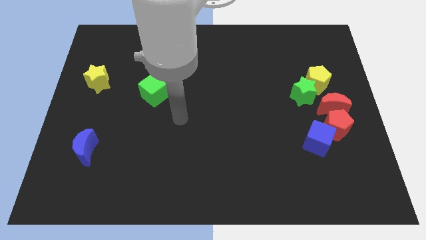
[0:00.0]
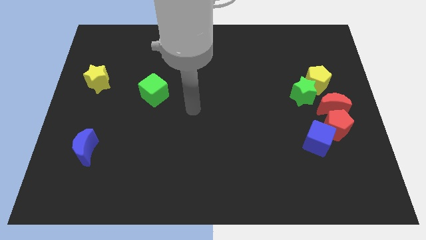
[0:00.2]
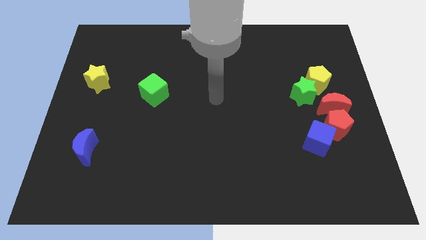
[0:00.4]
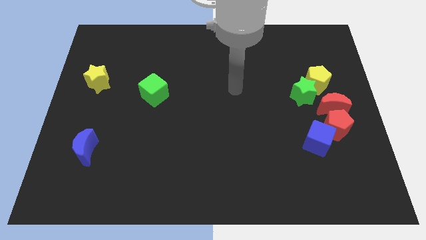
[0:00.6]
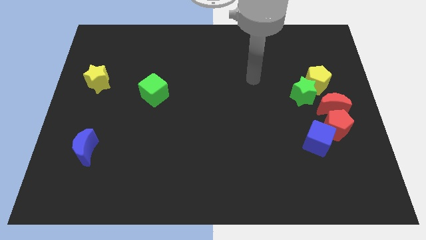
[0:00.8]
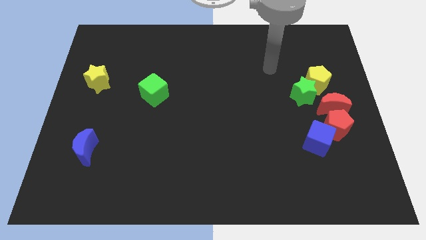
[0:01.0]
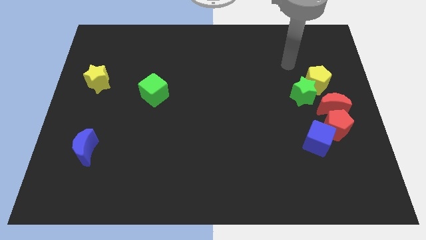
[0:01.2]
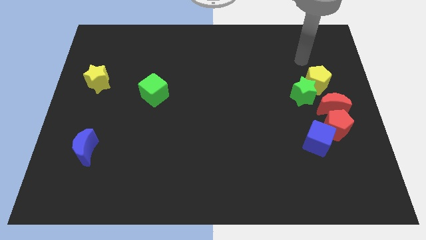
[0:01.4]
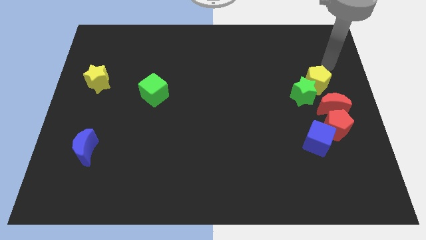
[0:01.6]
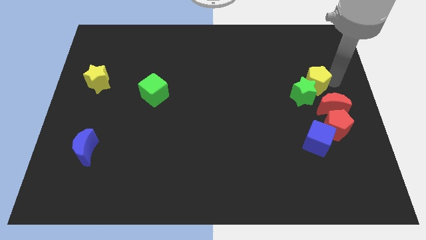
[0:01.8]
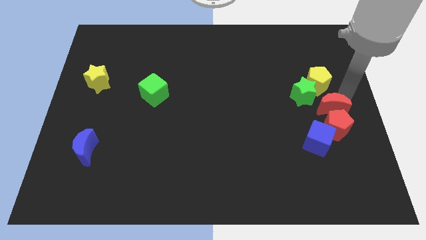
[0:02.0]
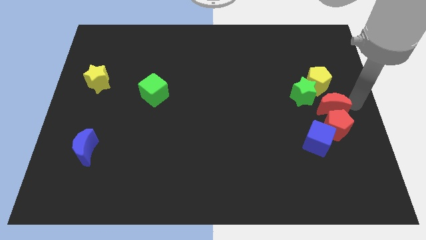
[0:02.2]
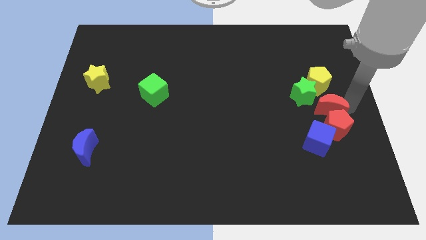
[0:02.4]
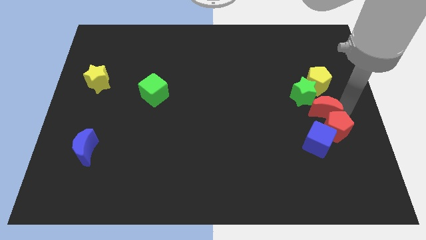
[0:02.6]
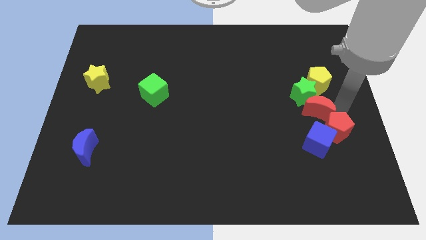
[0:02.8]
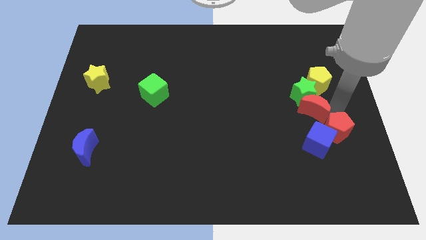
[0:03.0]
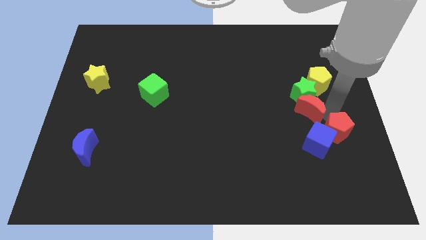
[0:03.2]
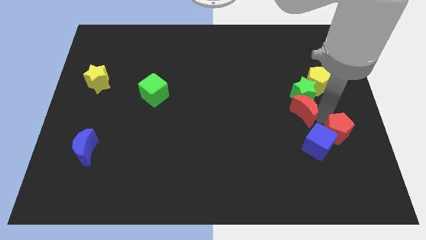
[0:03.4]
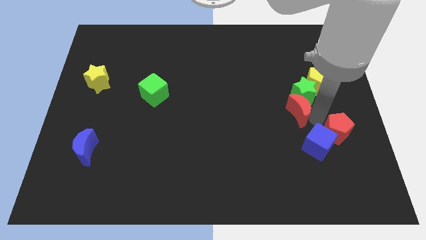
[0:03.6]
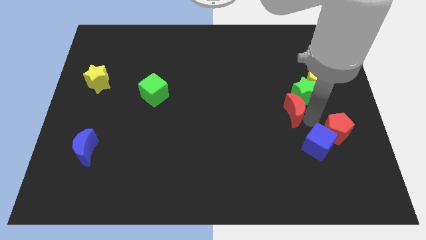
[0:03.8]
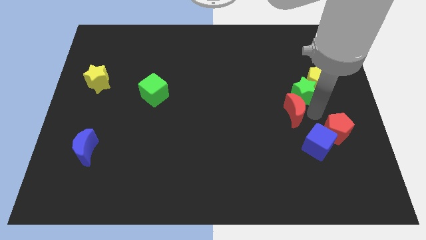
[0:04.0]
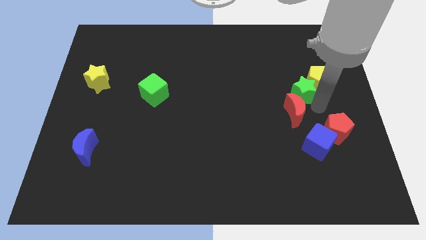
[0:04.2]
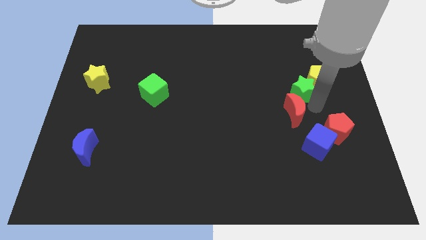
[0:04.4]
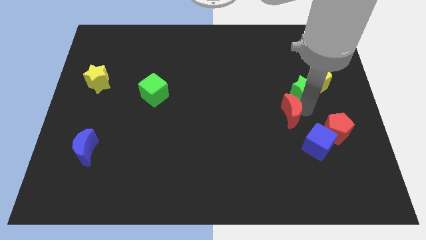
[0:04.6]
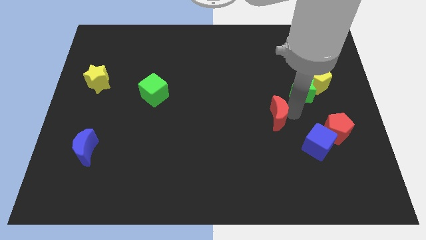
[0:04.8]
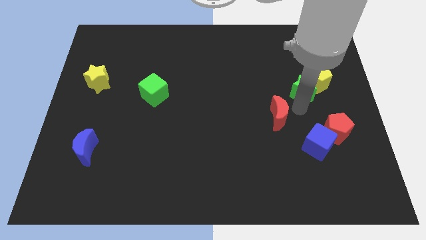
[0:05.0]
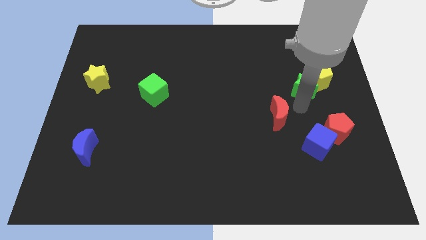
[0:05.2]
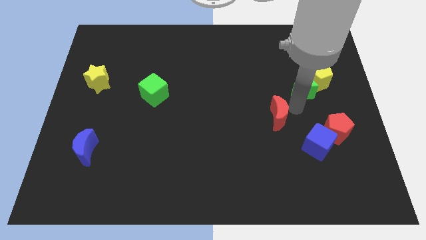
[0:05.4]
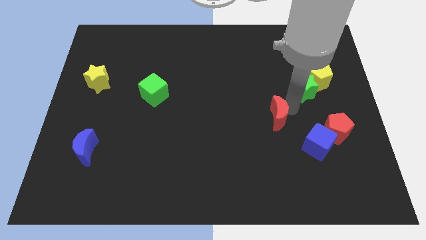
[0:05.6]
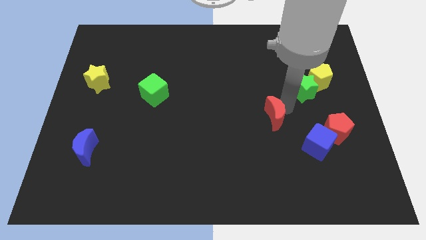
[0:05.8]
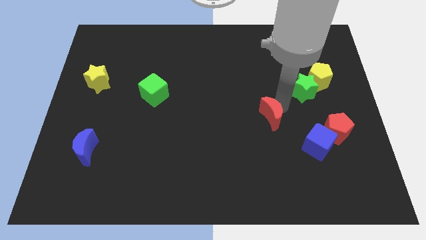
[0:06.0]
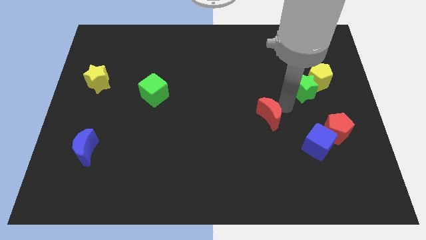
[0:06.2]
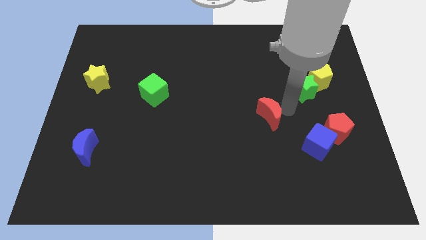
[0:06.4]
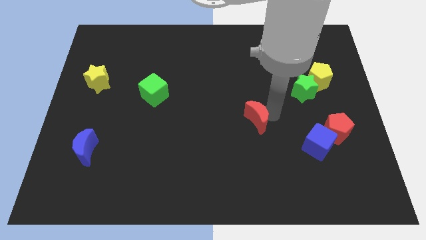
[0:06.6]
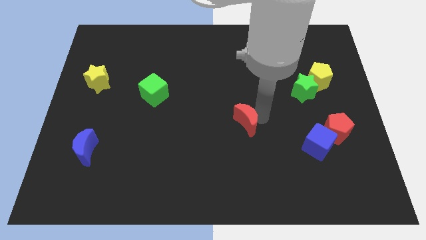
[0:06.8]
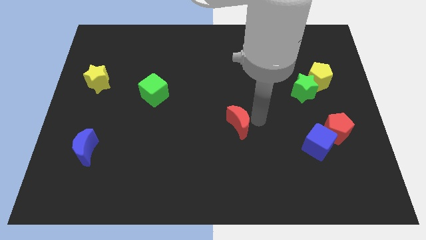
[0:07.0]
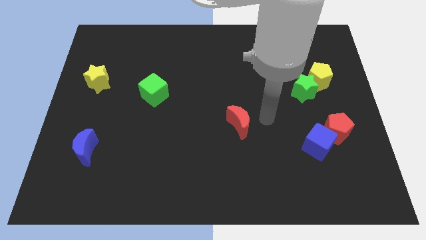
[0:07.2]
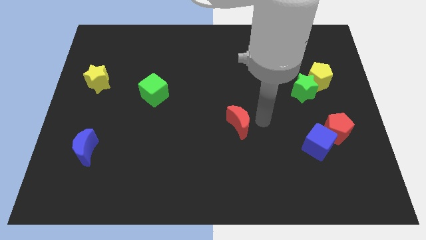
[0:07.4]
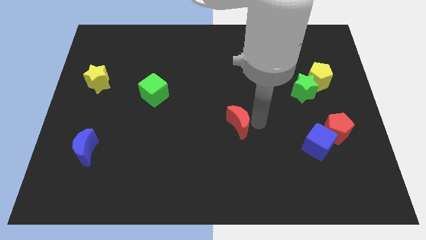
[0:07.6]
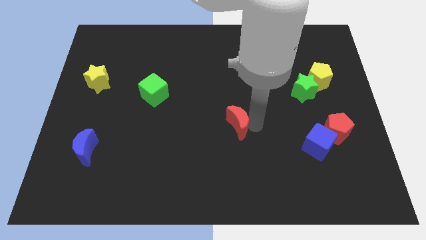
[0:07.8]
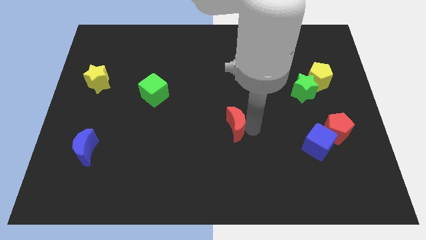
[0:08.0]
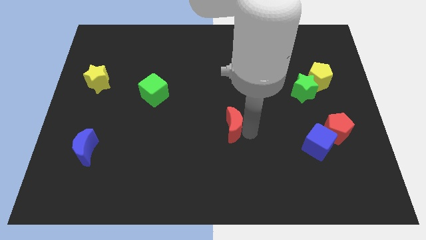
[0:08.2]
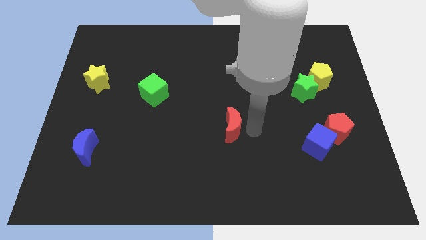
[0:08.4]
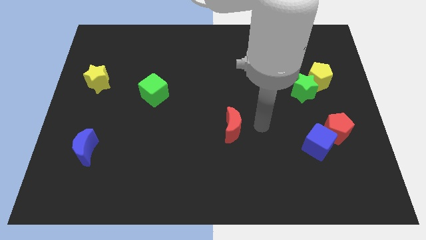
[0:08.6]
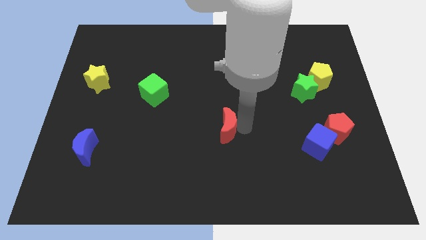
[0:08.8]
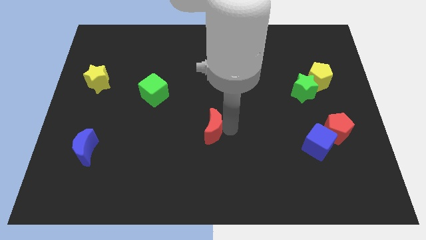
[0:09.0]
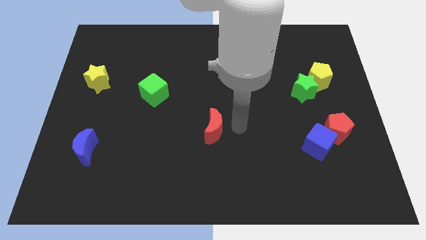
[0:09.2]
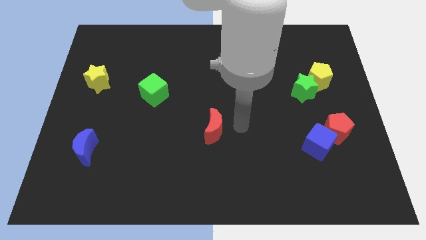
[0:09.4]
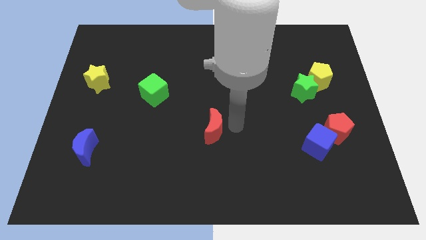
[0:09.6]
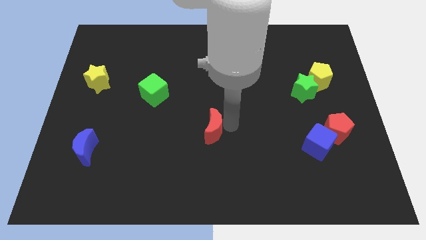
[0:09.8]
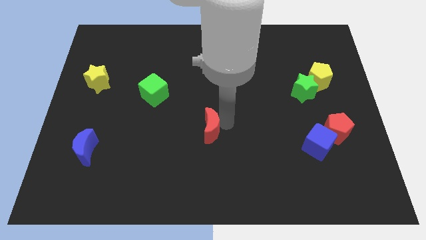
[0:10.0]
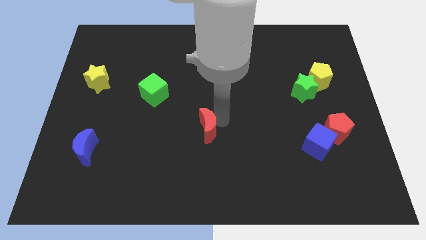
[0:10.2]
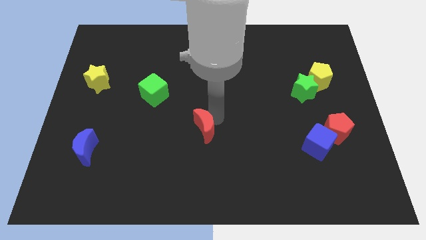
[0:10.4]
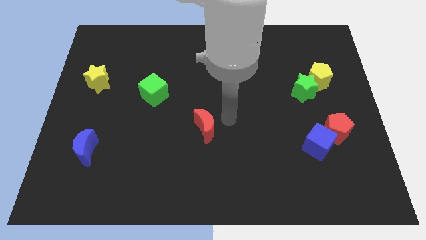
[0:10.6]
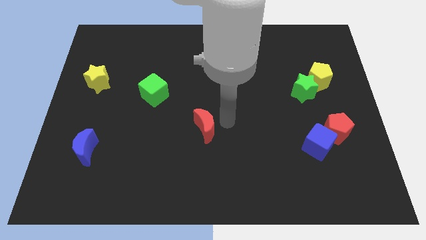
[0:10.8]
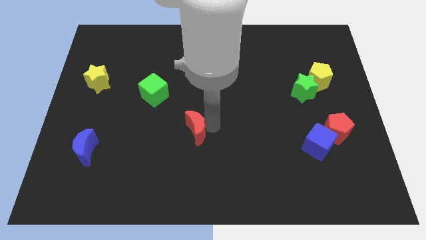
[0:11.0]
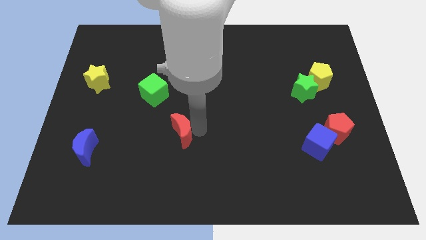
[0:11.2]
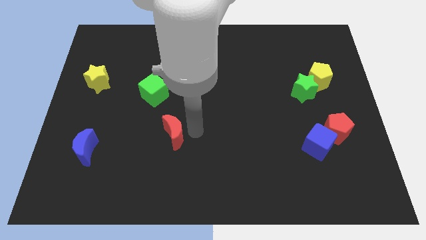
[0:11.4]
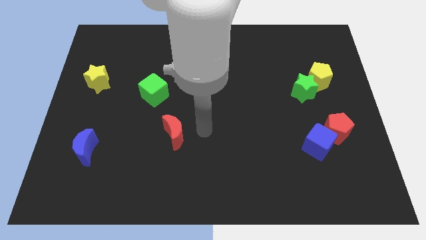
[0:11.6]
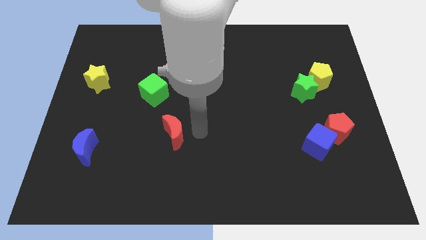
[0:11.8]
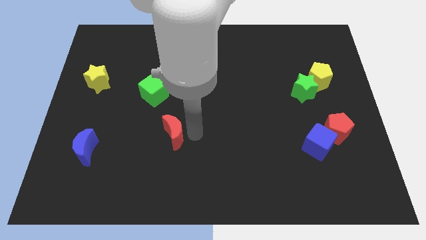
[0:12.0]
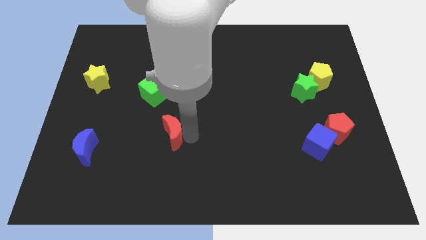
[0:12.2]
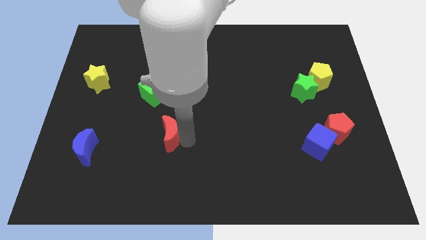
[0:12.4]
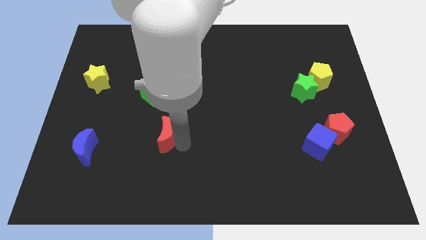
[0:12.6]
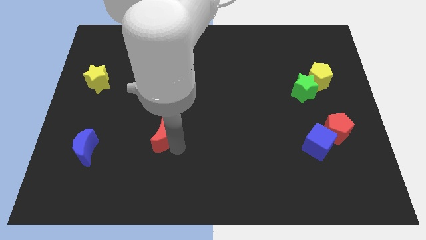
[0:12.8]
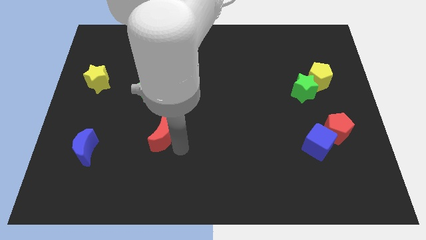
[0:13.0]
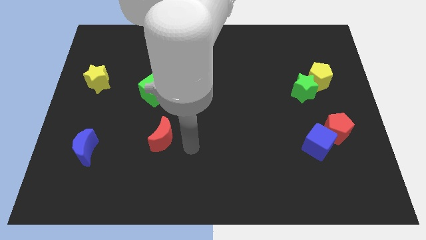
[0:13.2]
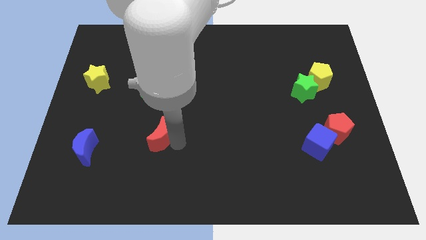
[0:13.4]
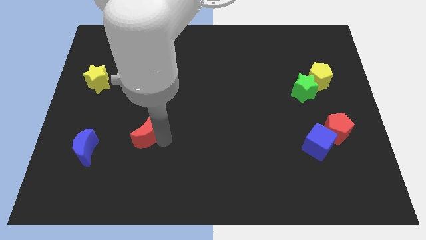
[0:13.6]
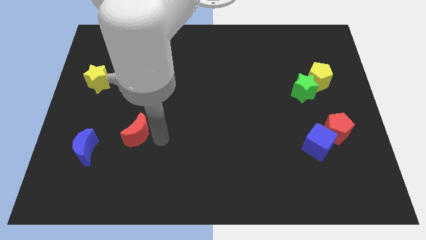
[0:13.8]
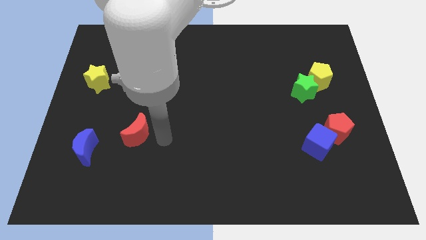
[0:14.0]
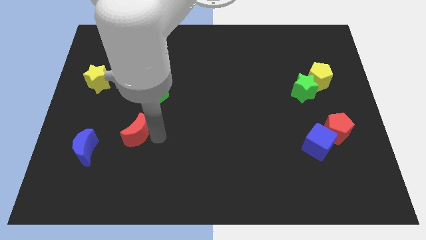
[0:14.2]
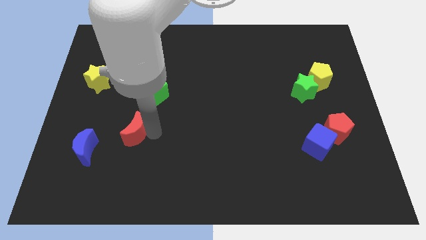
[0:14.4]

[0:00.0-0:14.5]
put the red moon diagonally up and to the right of the blue moon

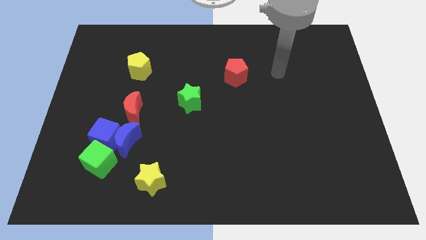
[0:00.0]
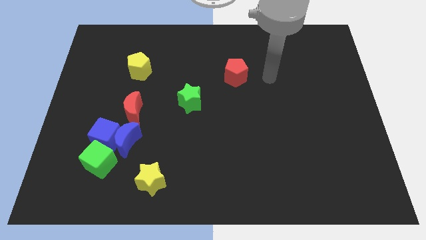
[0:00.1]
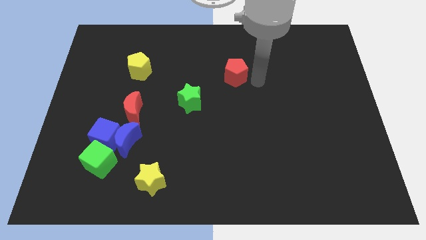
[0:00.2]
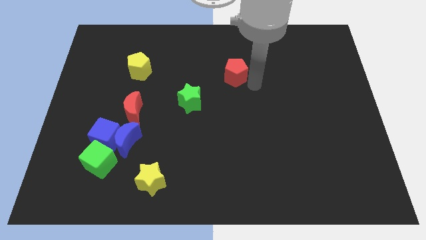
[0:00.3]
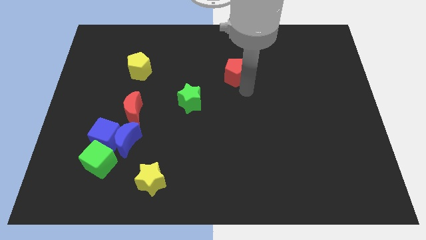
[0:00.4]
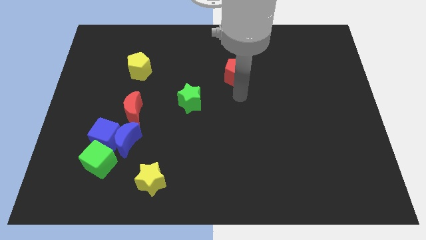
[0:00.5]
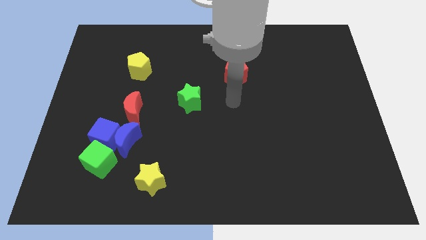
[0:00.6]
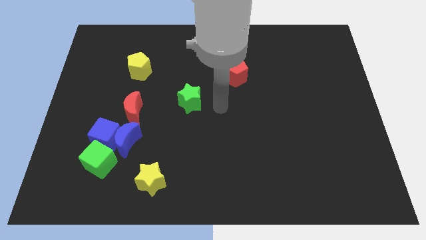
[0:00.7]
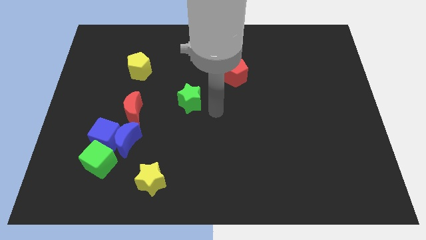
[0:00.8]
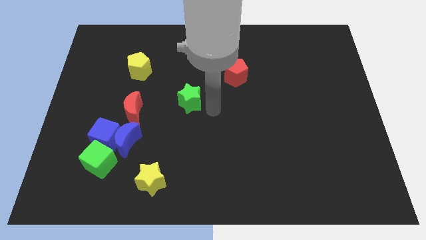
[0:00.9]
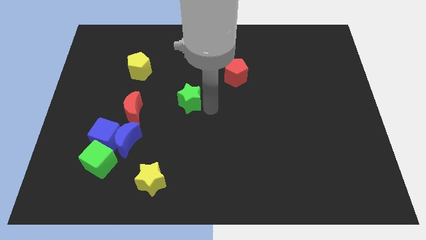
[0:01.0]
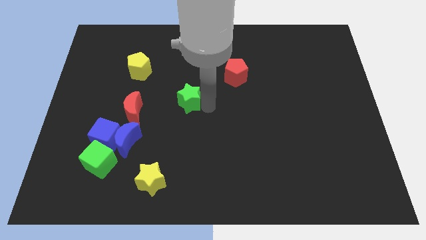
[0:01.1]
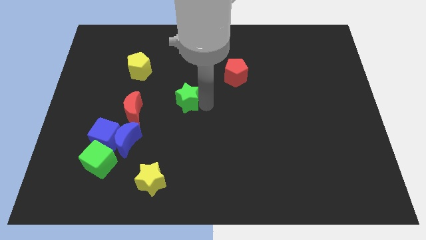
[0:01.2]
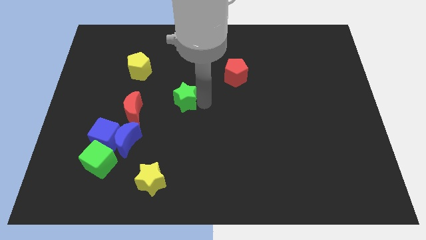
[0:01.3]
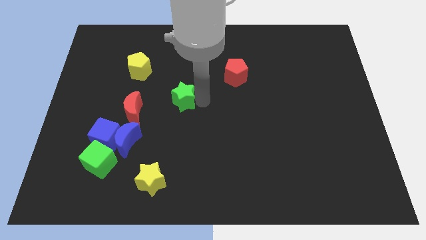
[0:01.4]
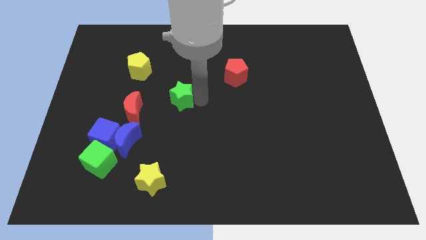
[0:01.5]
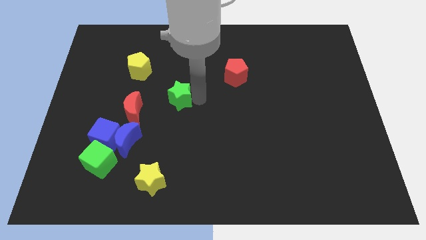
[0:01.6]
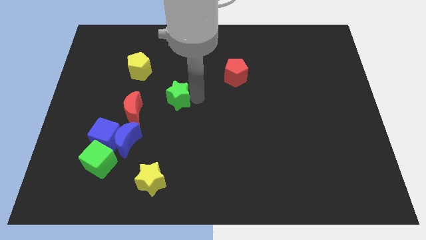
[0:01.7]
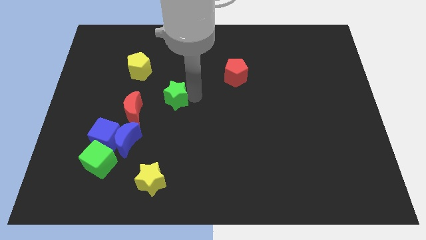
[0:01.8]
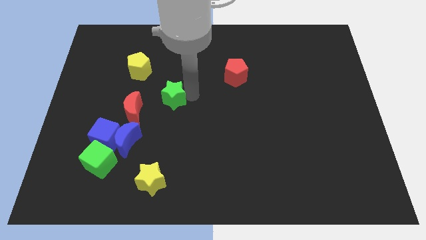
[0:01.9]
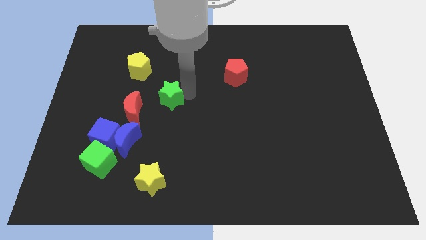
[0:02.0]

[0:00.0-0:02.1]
move the green star to the bottom right of the yellow pentagon
